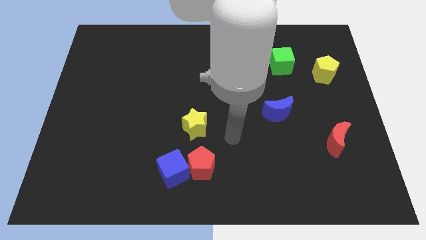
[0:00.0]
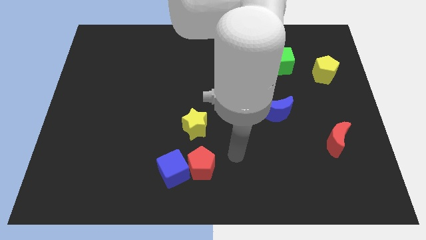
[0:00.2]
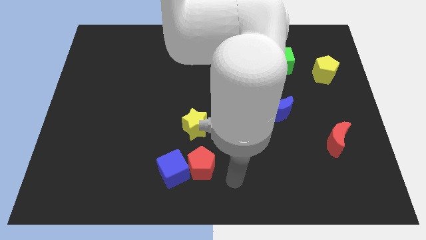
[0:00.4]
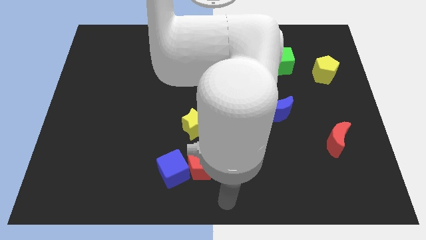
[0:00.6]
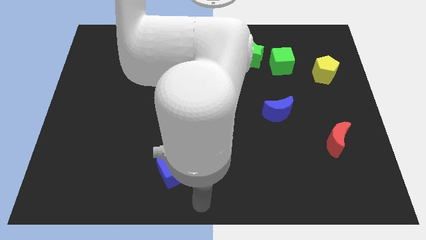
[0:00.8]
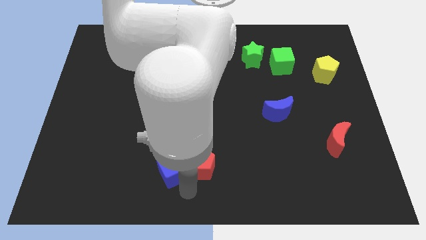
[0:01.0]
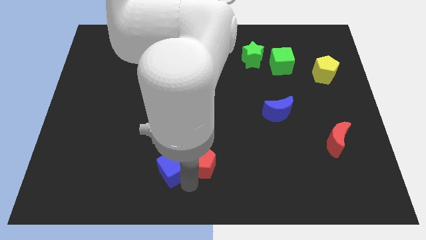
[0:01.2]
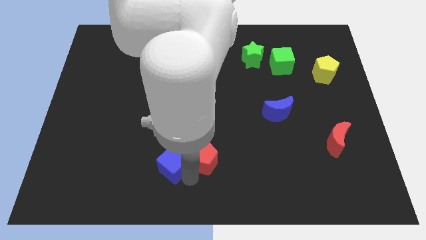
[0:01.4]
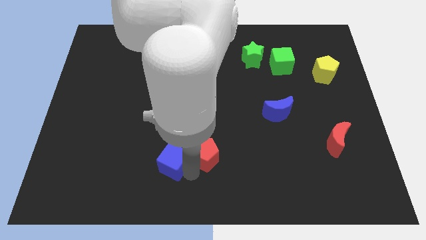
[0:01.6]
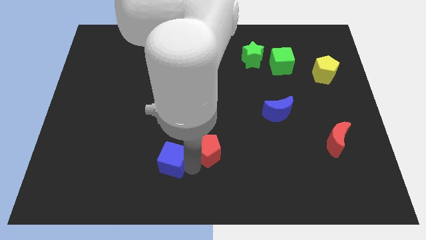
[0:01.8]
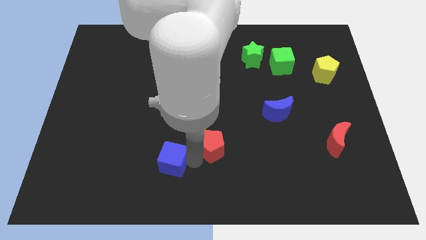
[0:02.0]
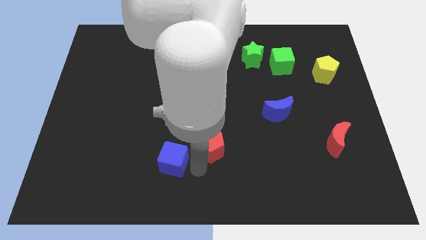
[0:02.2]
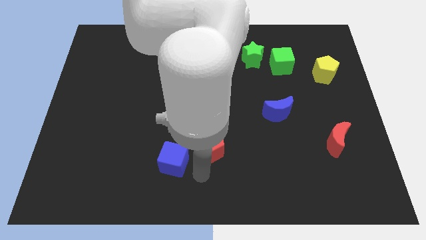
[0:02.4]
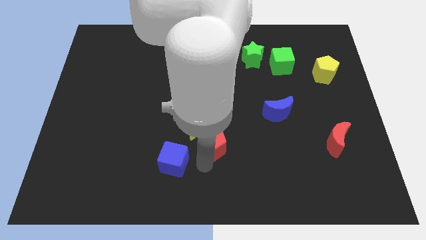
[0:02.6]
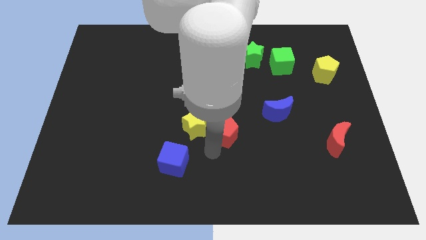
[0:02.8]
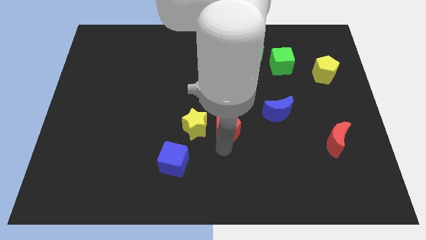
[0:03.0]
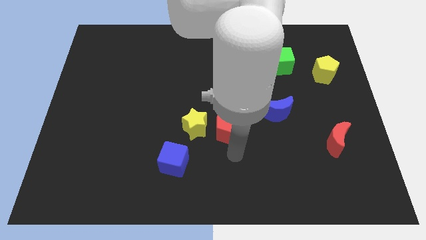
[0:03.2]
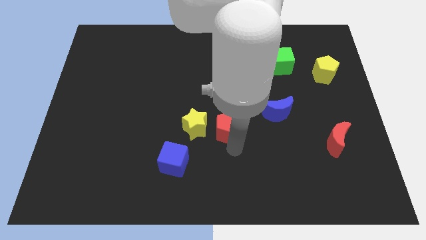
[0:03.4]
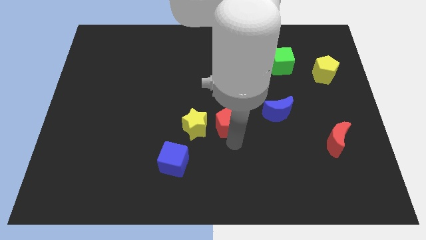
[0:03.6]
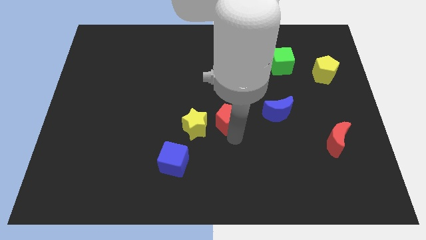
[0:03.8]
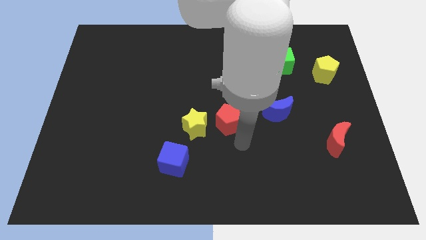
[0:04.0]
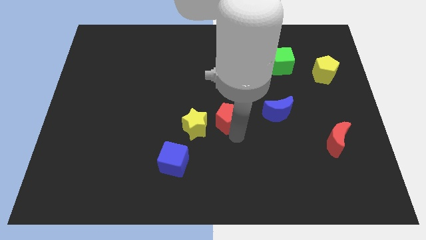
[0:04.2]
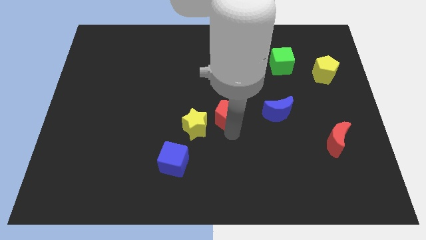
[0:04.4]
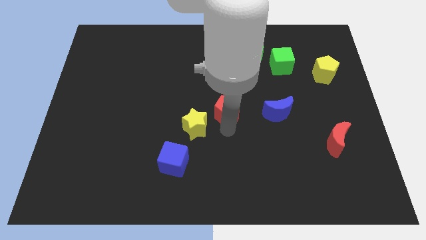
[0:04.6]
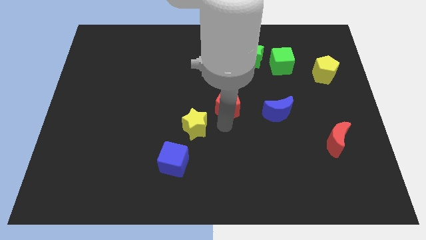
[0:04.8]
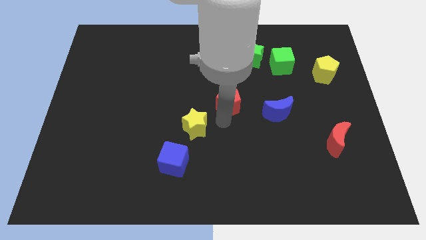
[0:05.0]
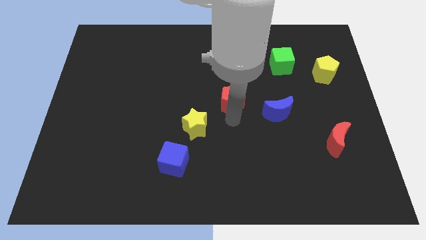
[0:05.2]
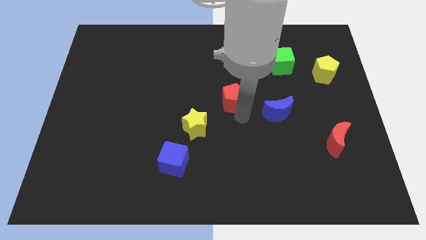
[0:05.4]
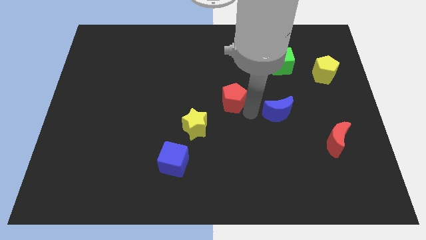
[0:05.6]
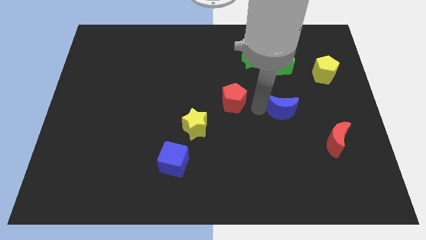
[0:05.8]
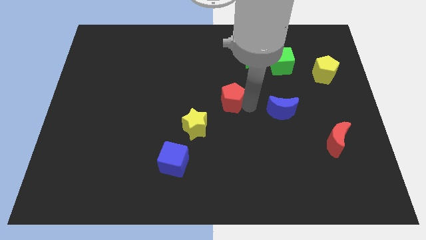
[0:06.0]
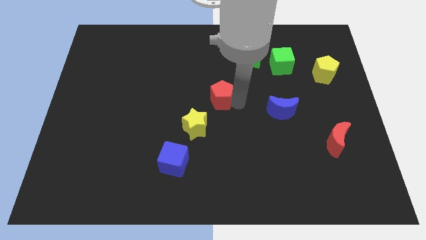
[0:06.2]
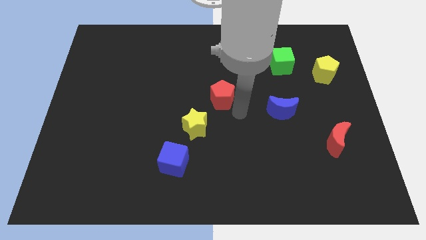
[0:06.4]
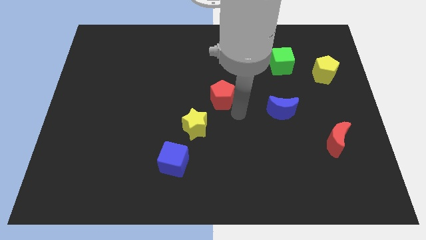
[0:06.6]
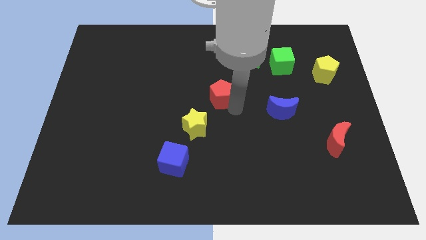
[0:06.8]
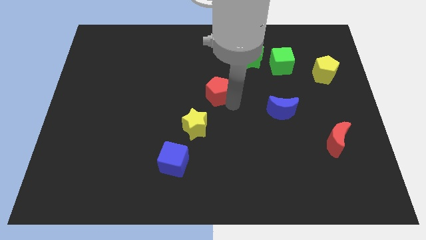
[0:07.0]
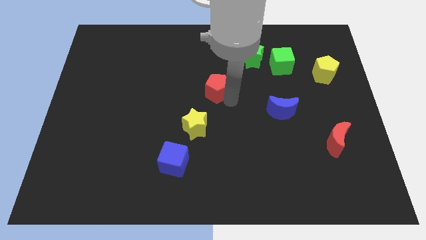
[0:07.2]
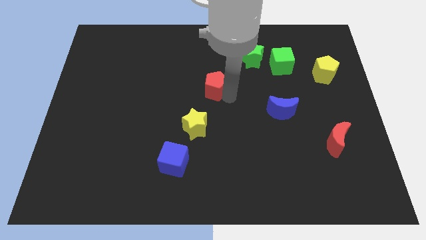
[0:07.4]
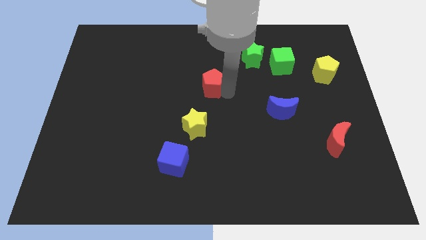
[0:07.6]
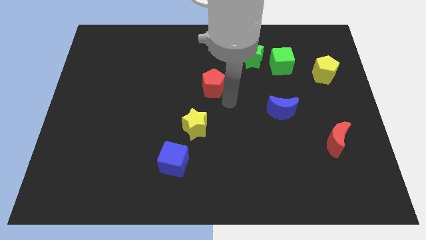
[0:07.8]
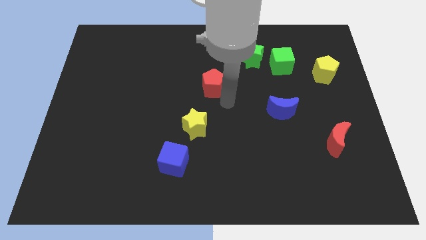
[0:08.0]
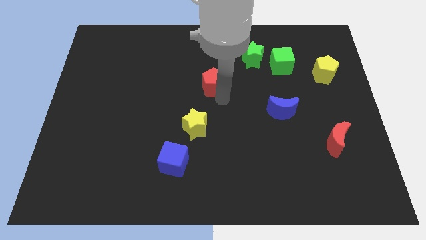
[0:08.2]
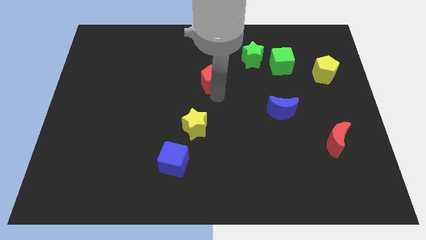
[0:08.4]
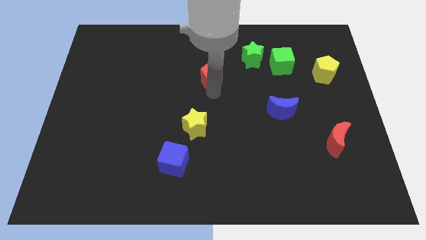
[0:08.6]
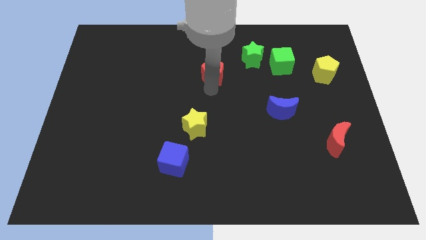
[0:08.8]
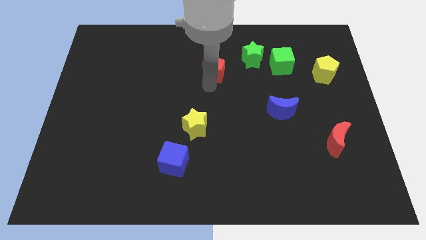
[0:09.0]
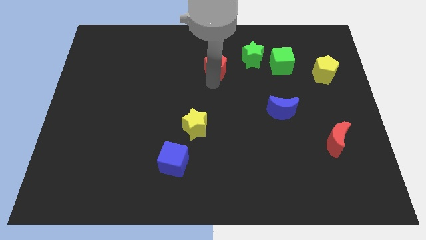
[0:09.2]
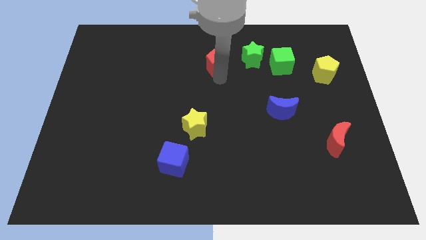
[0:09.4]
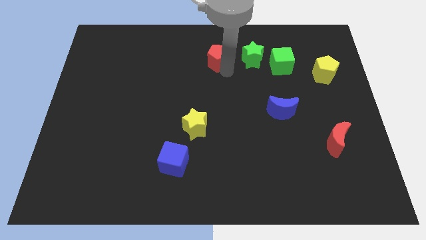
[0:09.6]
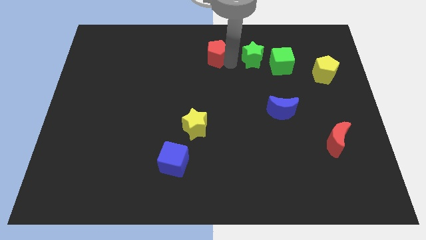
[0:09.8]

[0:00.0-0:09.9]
slide the red pentagon to the towards your base

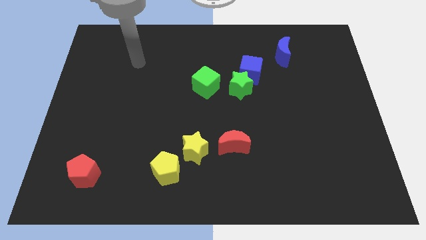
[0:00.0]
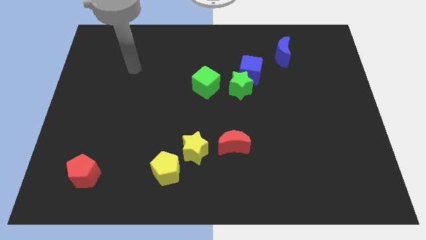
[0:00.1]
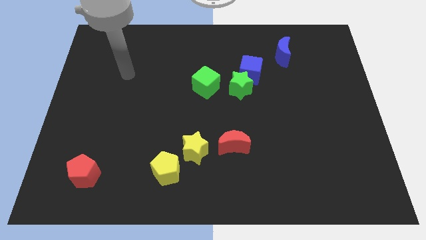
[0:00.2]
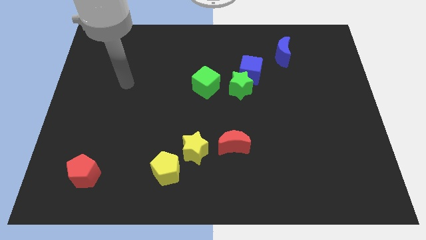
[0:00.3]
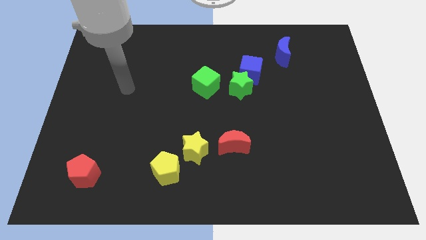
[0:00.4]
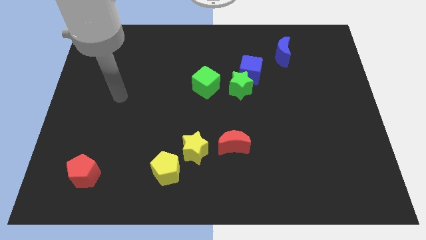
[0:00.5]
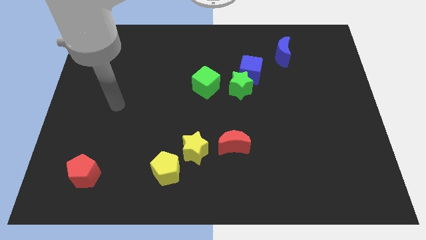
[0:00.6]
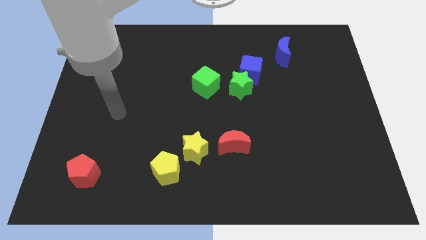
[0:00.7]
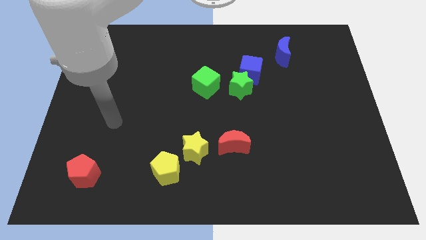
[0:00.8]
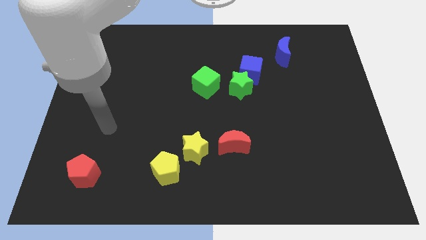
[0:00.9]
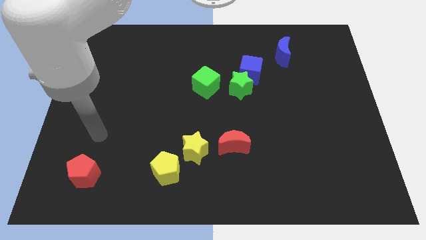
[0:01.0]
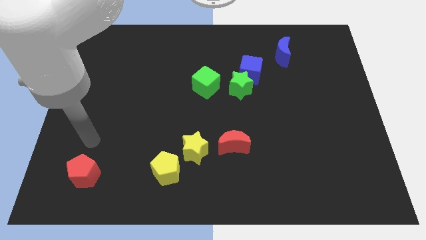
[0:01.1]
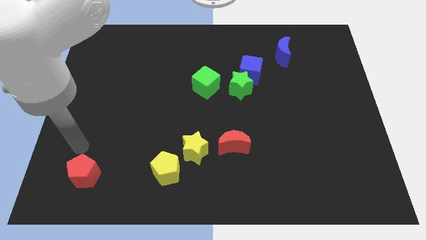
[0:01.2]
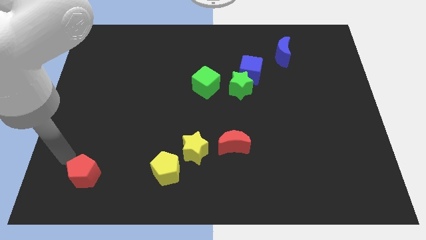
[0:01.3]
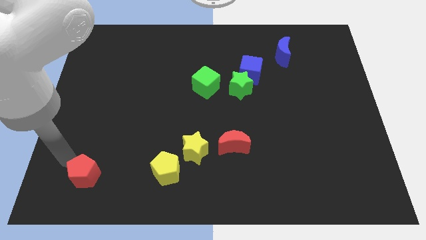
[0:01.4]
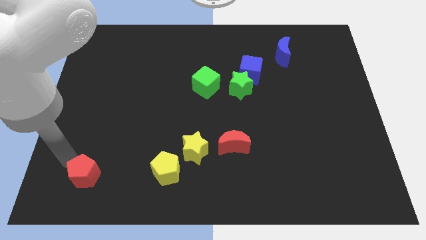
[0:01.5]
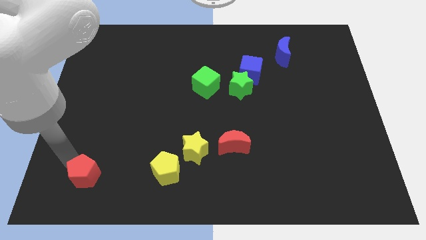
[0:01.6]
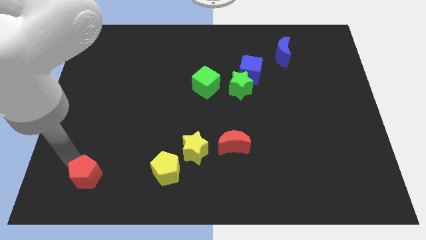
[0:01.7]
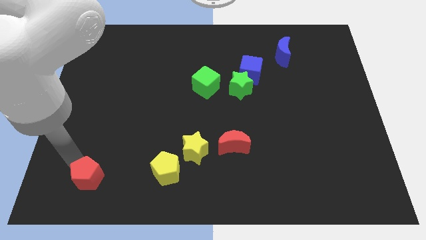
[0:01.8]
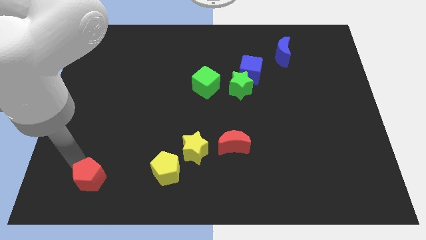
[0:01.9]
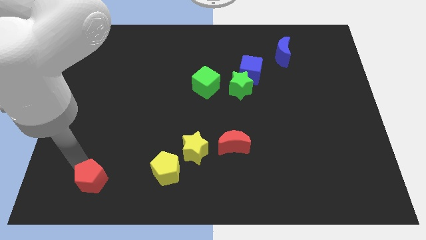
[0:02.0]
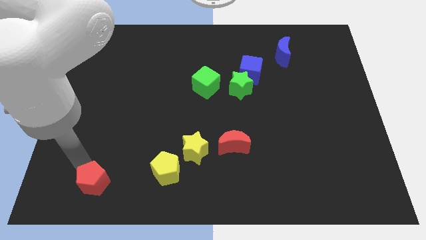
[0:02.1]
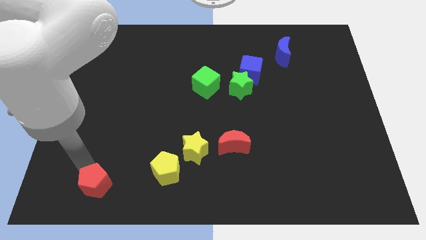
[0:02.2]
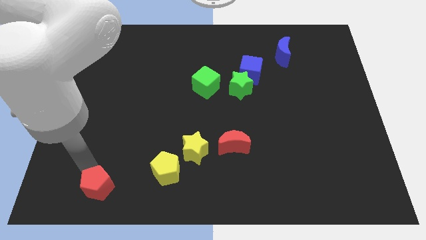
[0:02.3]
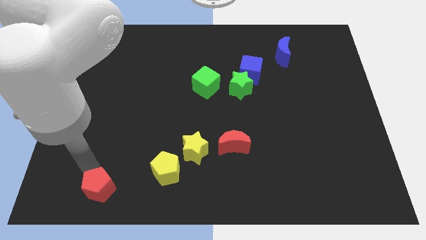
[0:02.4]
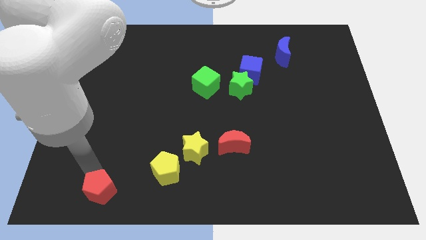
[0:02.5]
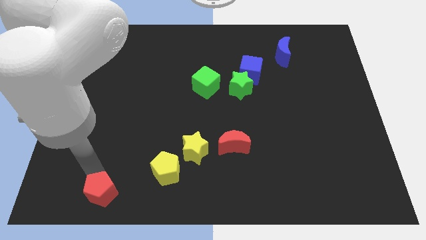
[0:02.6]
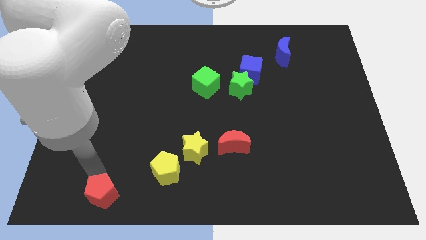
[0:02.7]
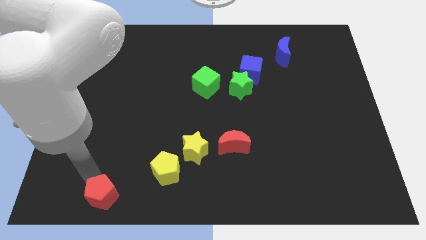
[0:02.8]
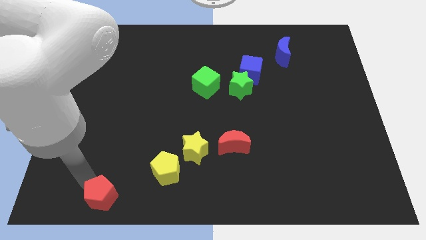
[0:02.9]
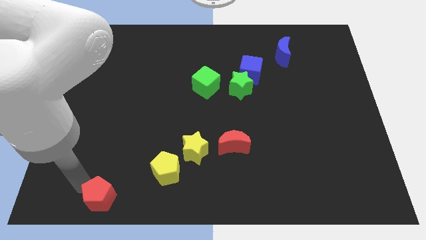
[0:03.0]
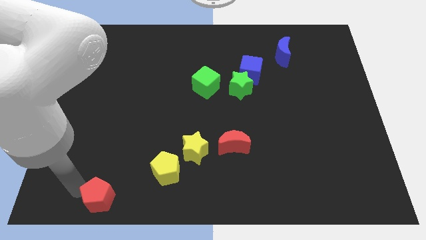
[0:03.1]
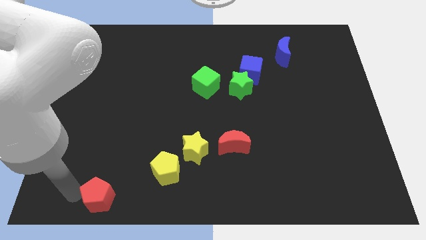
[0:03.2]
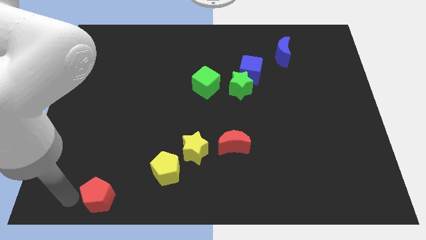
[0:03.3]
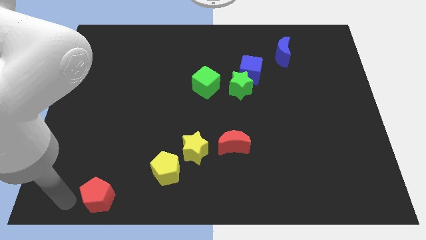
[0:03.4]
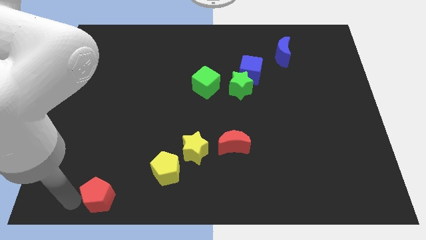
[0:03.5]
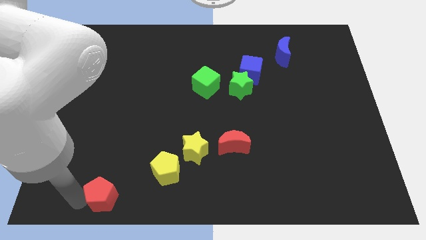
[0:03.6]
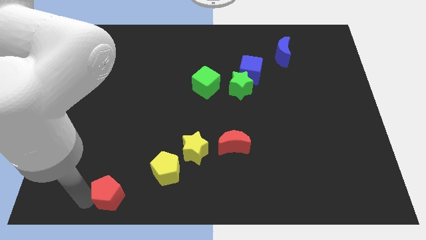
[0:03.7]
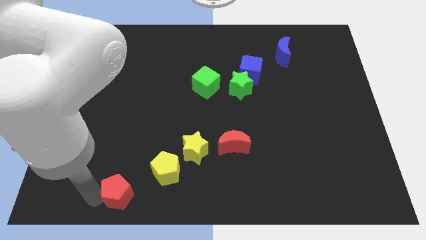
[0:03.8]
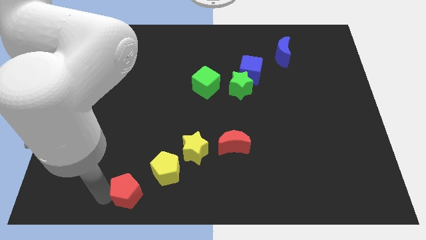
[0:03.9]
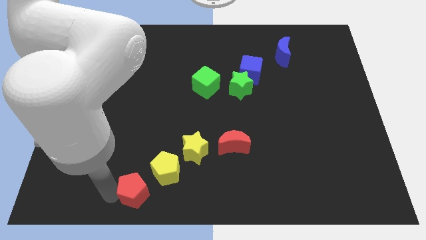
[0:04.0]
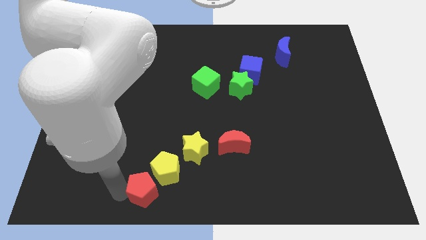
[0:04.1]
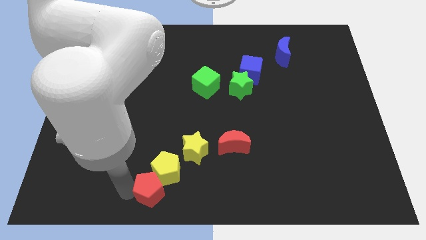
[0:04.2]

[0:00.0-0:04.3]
push the red pentagon to the bottom side
